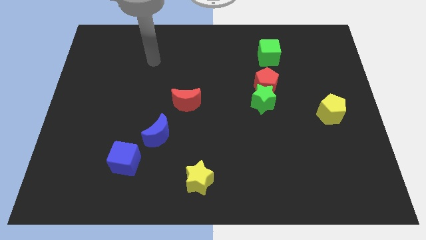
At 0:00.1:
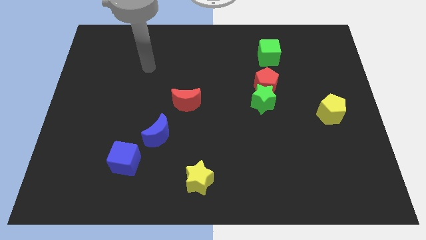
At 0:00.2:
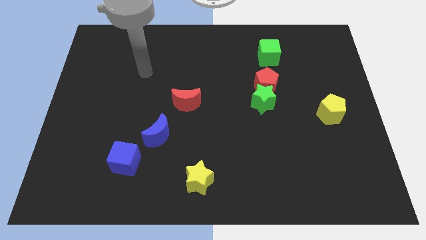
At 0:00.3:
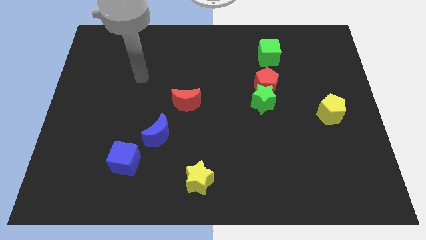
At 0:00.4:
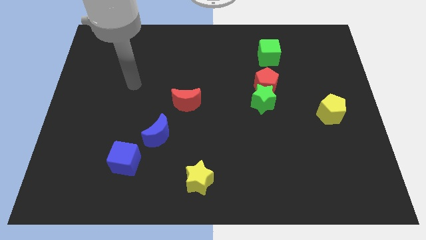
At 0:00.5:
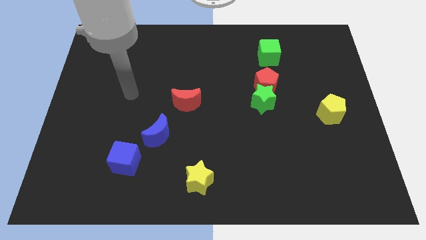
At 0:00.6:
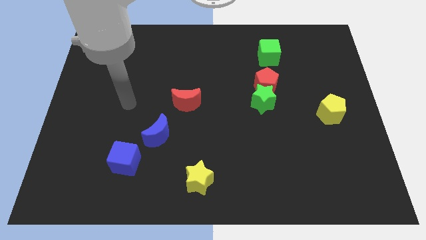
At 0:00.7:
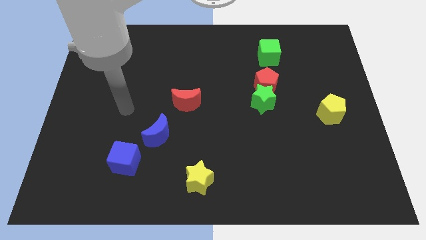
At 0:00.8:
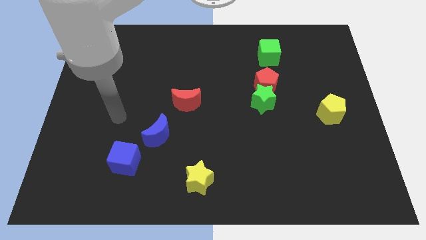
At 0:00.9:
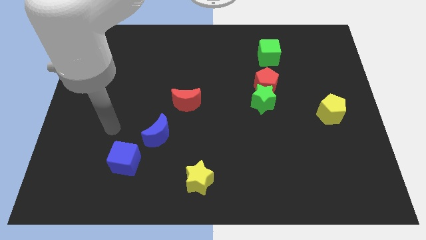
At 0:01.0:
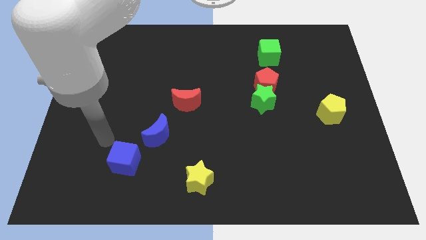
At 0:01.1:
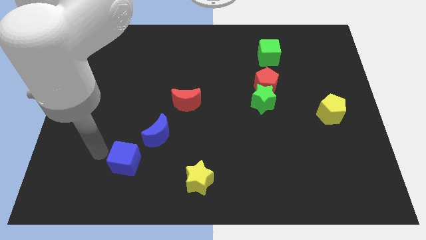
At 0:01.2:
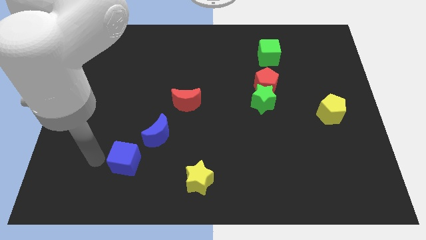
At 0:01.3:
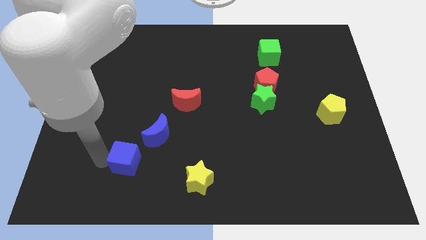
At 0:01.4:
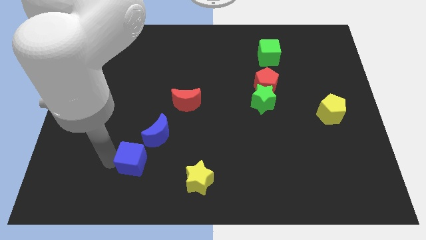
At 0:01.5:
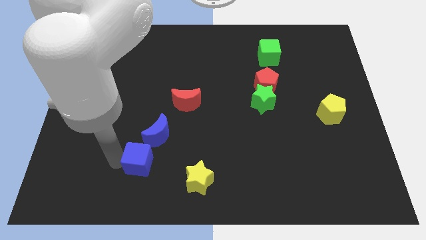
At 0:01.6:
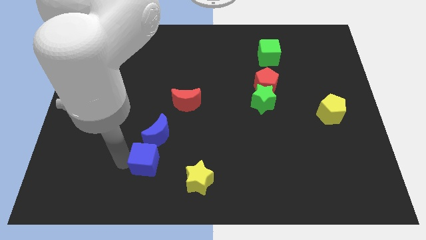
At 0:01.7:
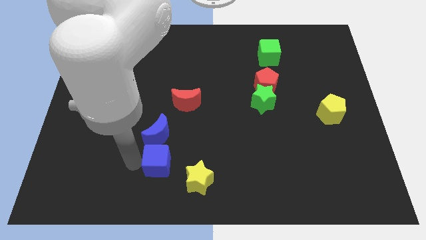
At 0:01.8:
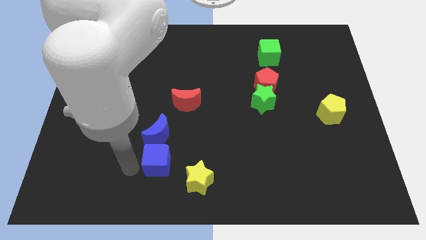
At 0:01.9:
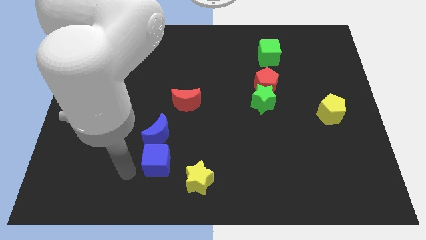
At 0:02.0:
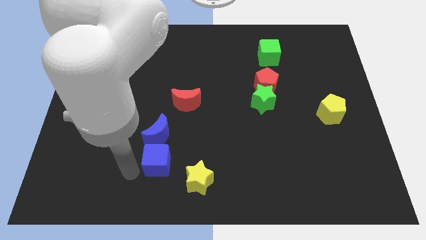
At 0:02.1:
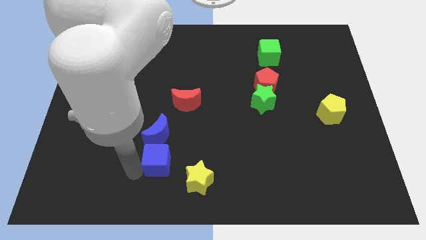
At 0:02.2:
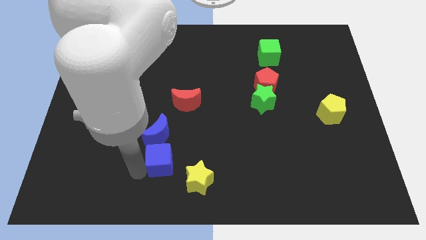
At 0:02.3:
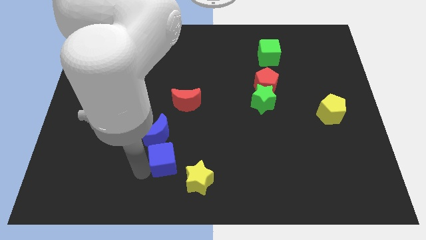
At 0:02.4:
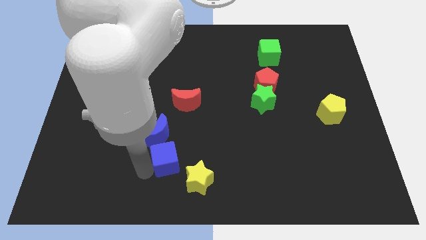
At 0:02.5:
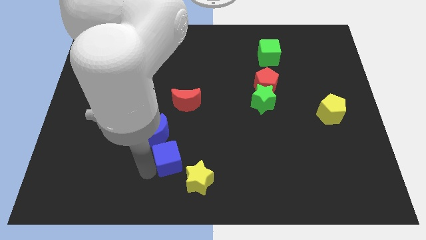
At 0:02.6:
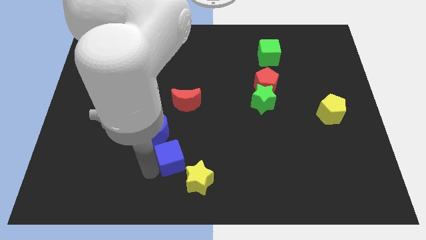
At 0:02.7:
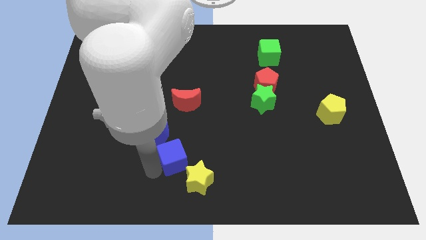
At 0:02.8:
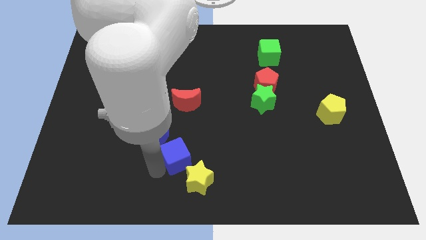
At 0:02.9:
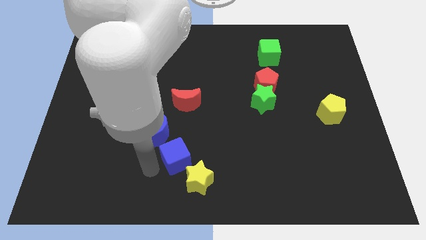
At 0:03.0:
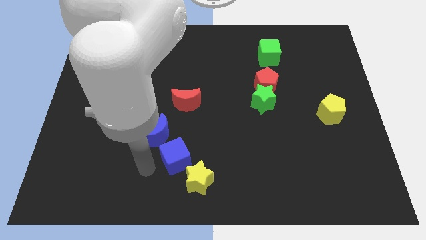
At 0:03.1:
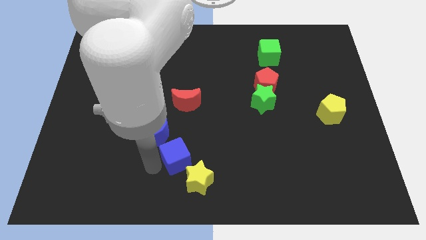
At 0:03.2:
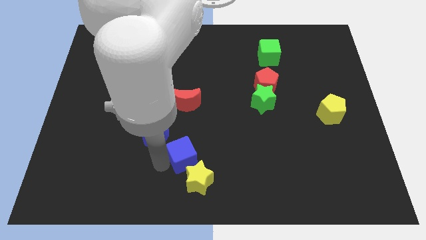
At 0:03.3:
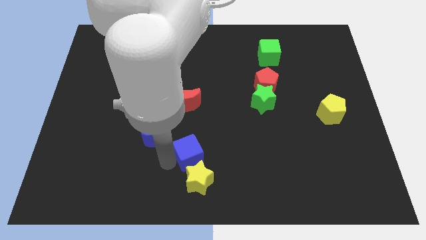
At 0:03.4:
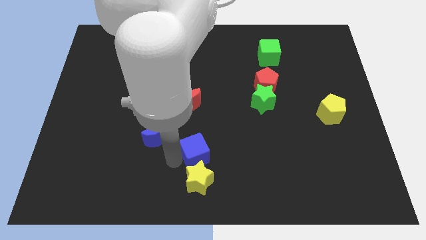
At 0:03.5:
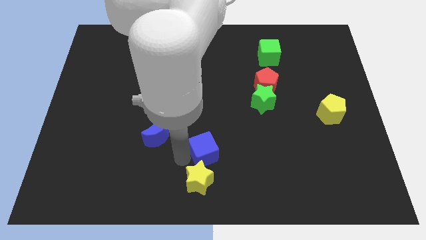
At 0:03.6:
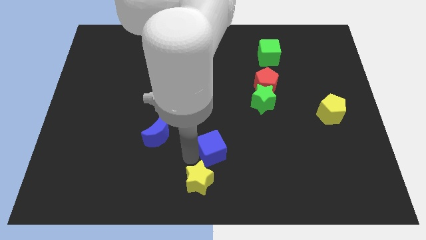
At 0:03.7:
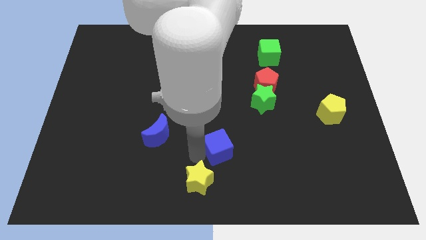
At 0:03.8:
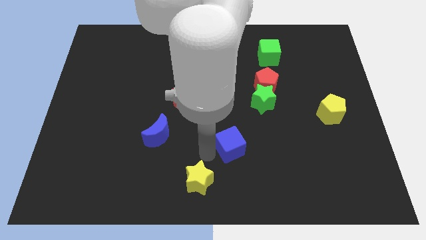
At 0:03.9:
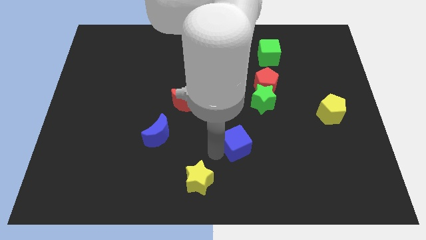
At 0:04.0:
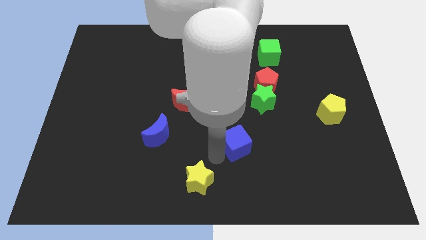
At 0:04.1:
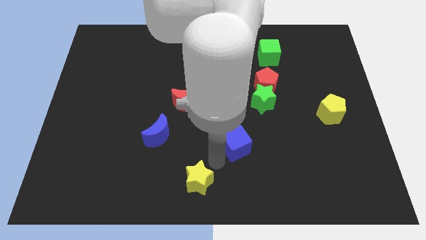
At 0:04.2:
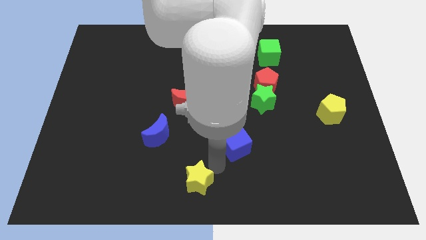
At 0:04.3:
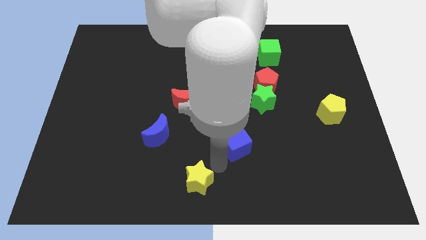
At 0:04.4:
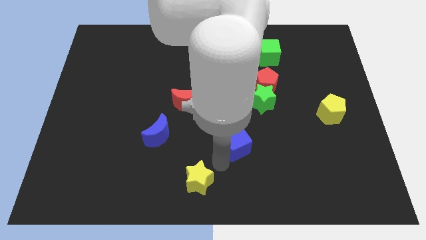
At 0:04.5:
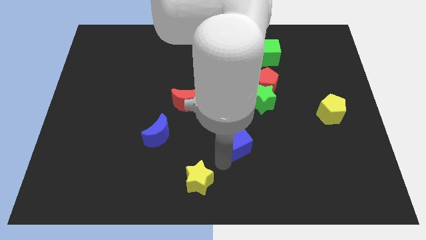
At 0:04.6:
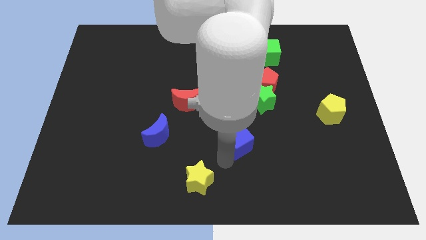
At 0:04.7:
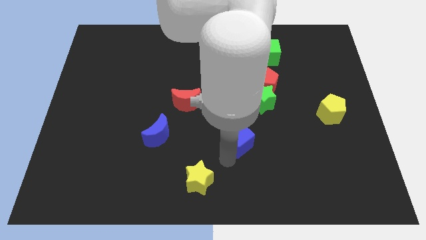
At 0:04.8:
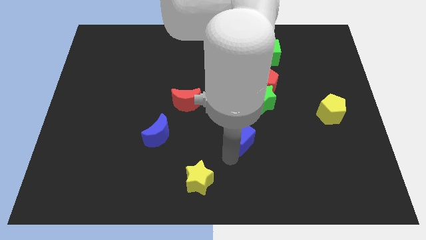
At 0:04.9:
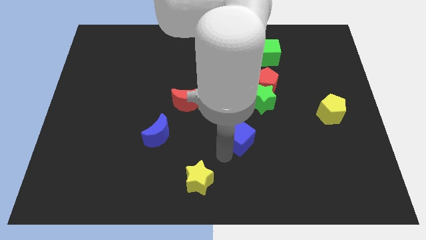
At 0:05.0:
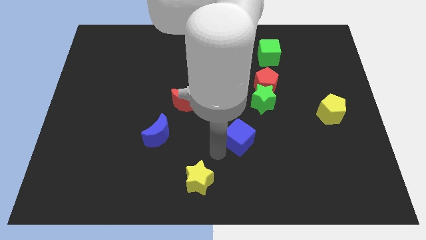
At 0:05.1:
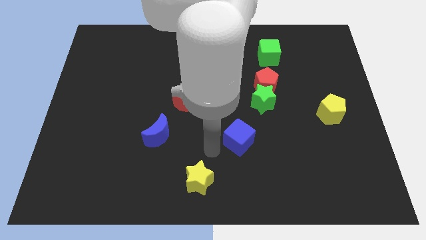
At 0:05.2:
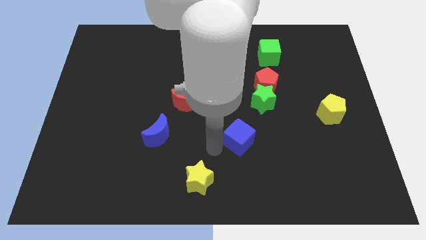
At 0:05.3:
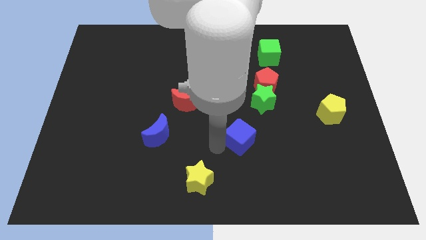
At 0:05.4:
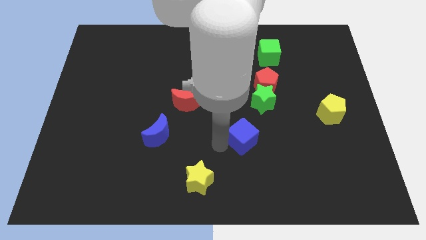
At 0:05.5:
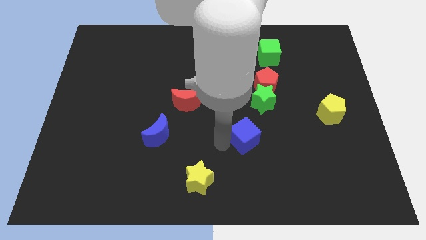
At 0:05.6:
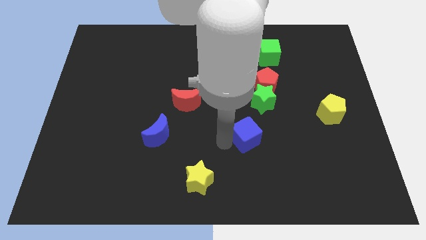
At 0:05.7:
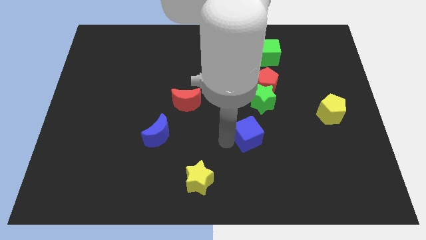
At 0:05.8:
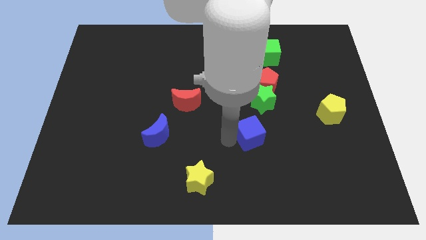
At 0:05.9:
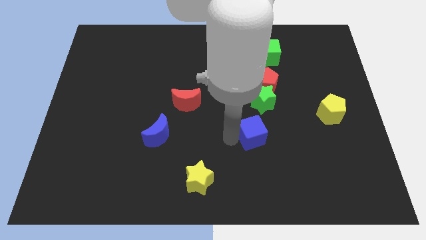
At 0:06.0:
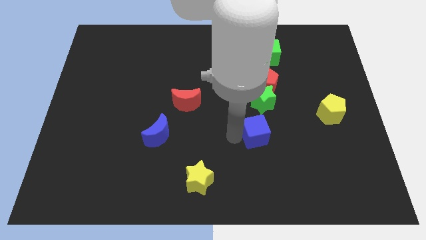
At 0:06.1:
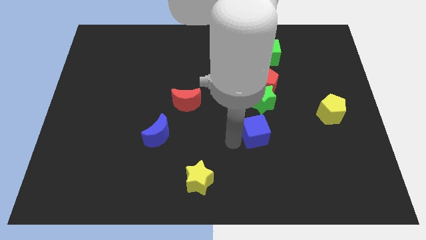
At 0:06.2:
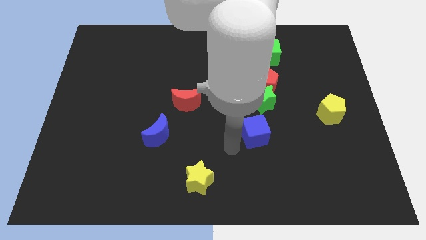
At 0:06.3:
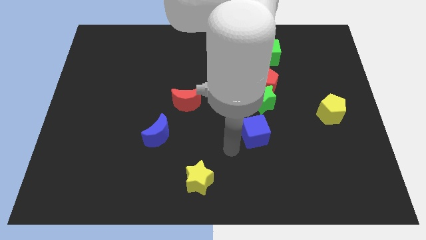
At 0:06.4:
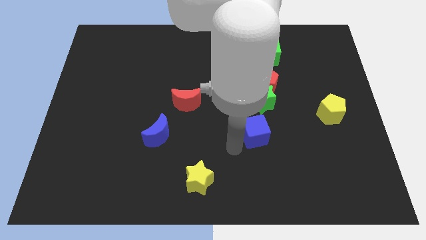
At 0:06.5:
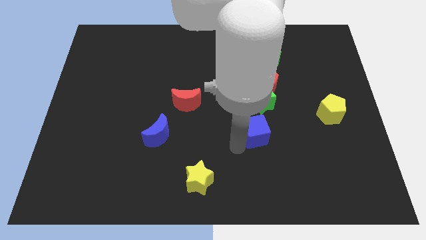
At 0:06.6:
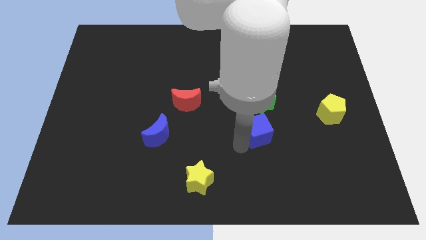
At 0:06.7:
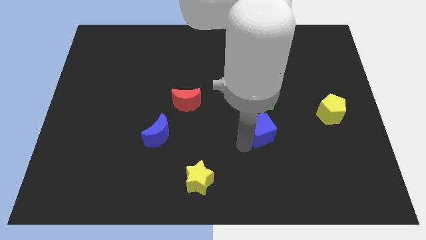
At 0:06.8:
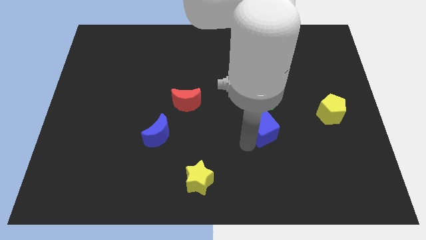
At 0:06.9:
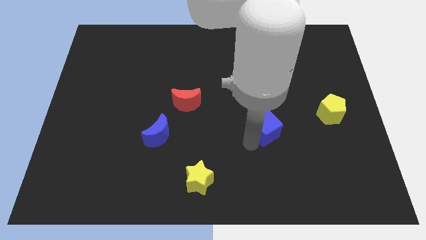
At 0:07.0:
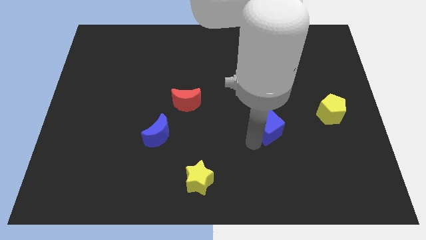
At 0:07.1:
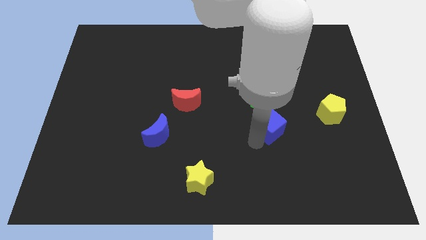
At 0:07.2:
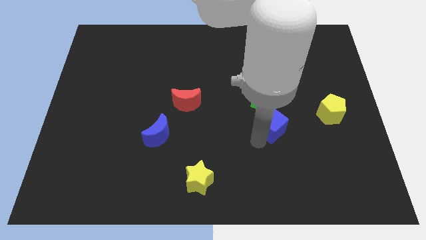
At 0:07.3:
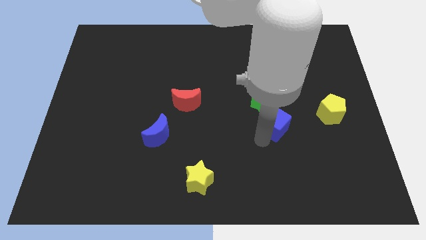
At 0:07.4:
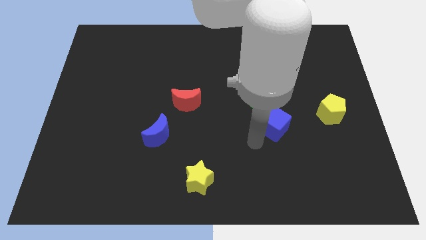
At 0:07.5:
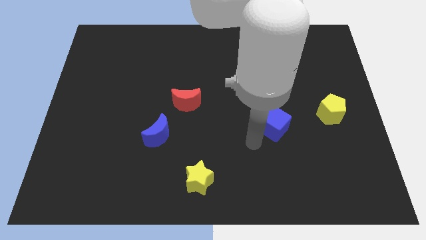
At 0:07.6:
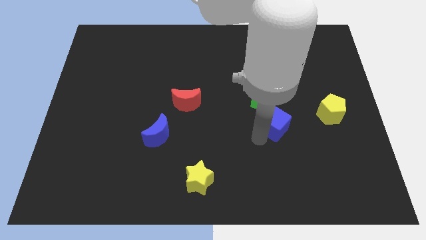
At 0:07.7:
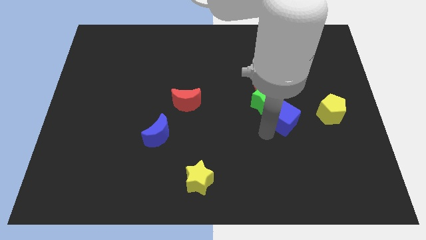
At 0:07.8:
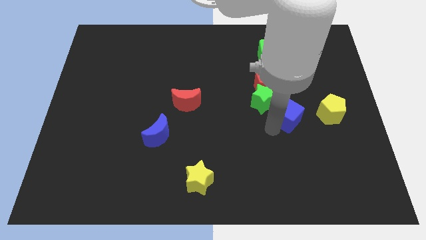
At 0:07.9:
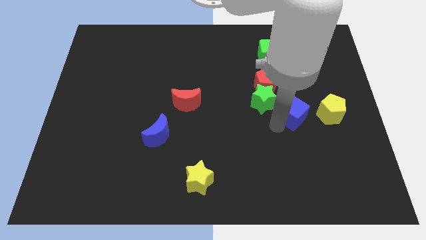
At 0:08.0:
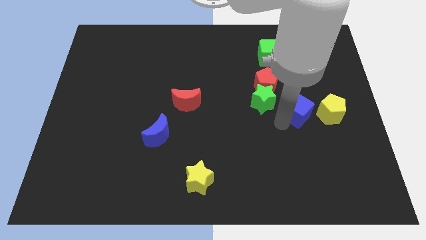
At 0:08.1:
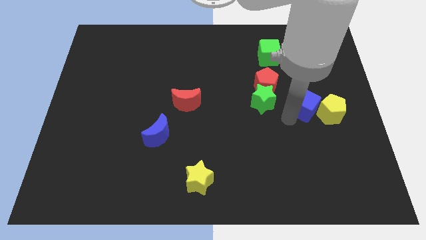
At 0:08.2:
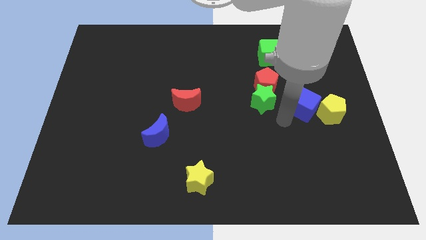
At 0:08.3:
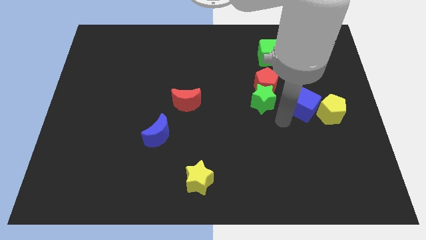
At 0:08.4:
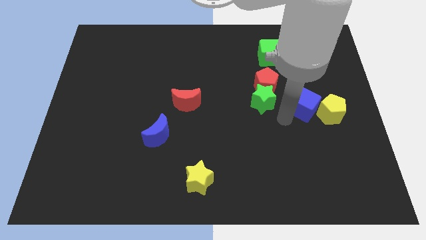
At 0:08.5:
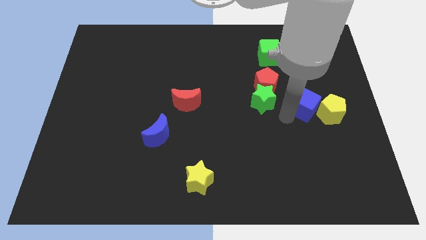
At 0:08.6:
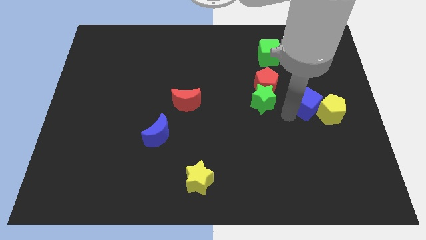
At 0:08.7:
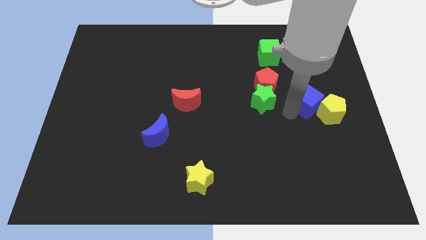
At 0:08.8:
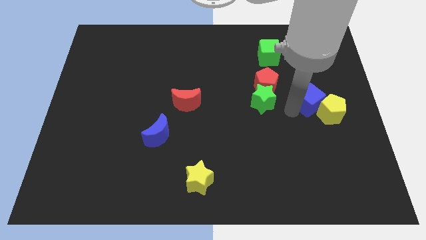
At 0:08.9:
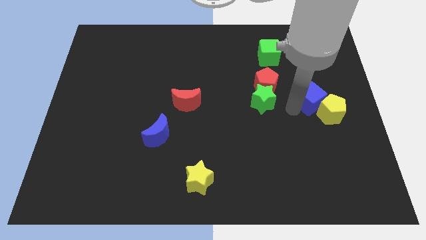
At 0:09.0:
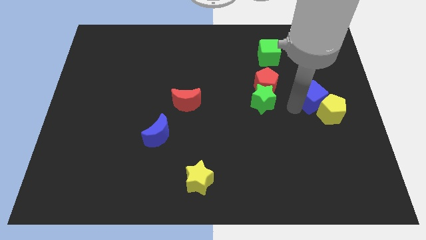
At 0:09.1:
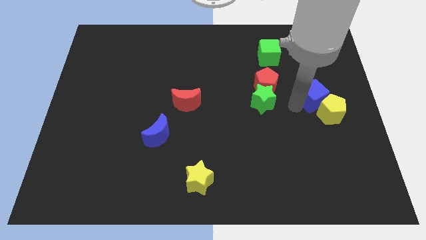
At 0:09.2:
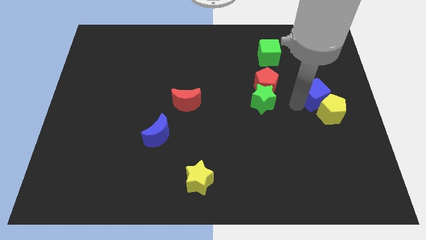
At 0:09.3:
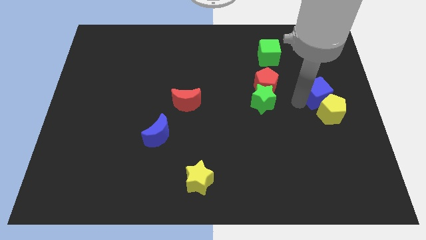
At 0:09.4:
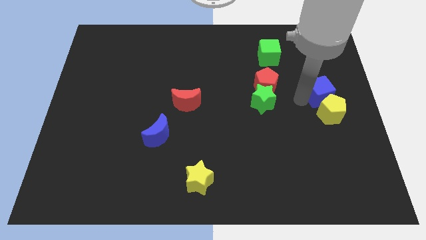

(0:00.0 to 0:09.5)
put the blue cube to the right side
